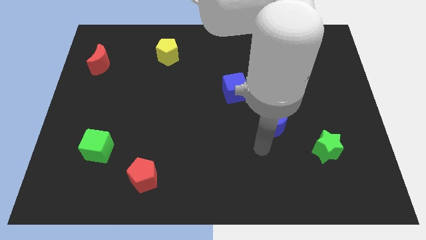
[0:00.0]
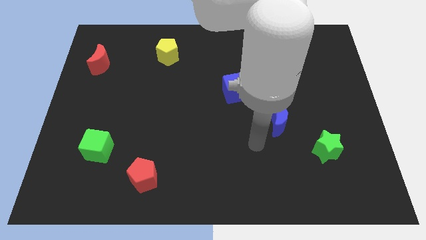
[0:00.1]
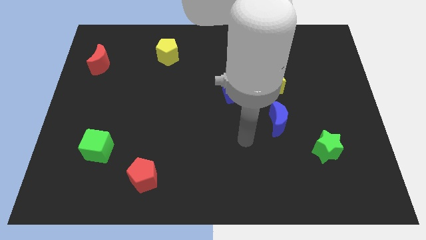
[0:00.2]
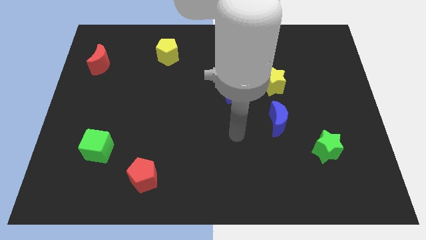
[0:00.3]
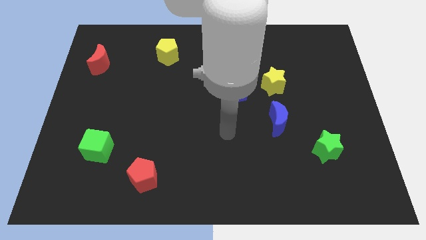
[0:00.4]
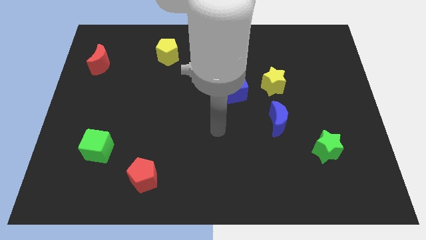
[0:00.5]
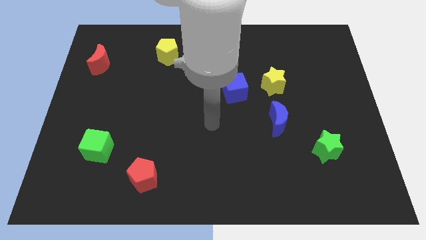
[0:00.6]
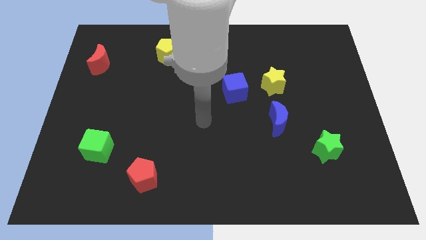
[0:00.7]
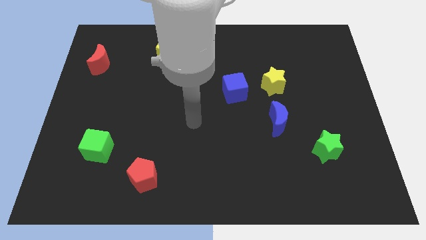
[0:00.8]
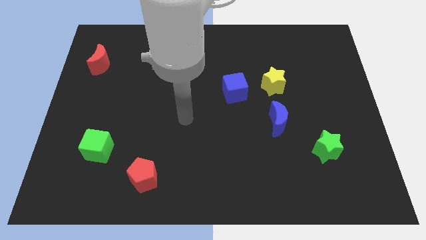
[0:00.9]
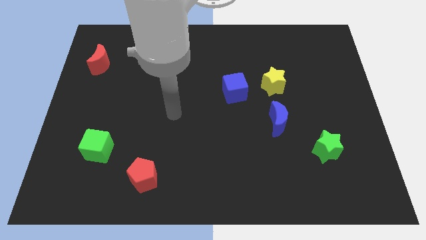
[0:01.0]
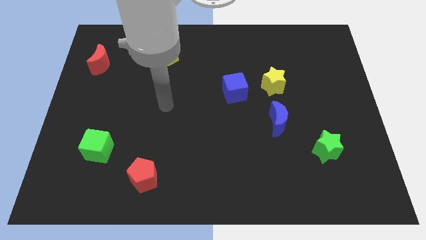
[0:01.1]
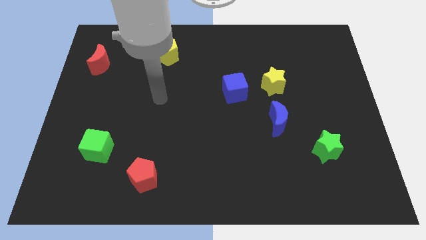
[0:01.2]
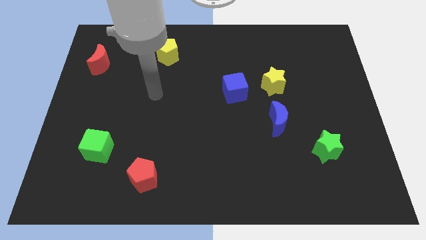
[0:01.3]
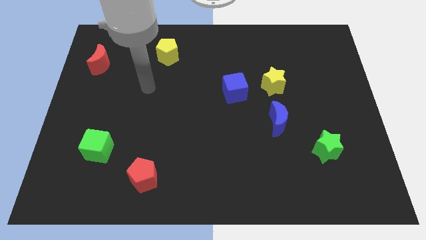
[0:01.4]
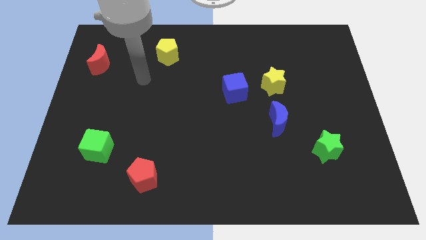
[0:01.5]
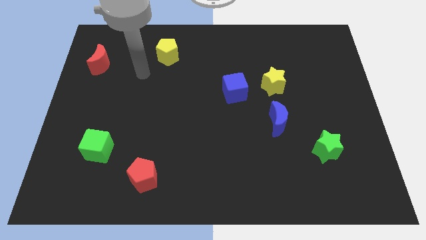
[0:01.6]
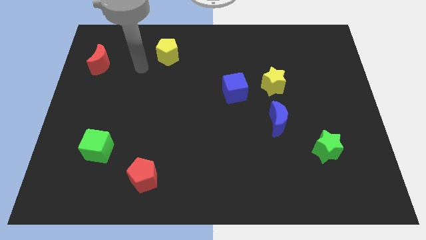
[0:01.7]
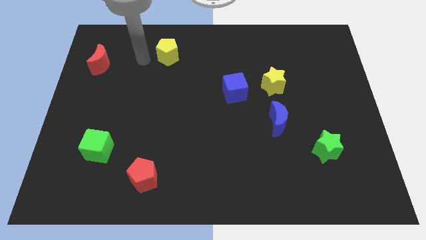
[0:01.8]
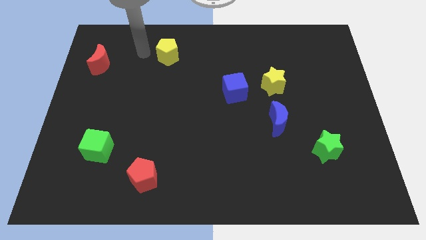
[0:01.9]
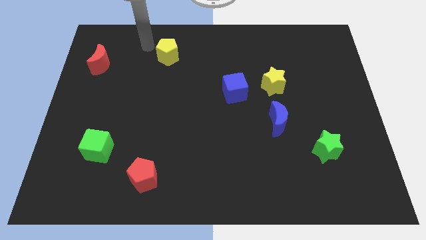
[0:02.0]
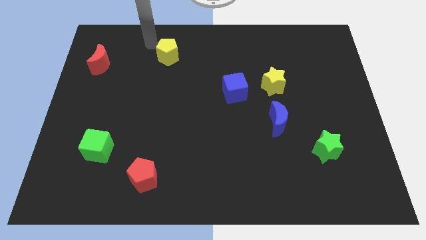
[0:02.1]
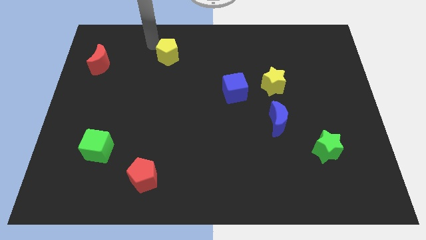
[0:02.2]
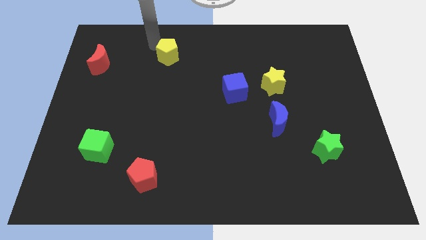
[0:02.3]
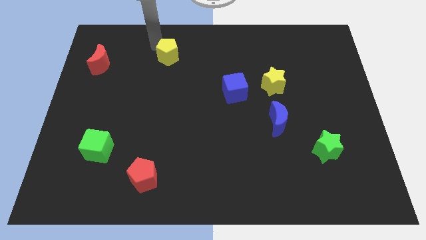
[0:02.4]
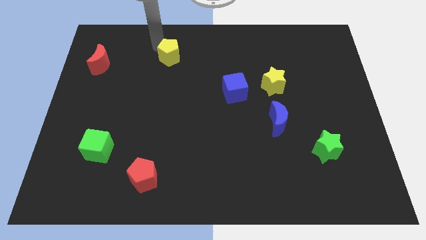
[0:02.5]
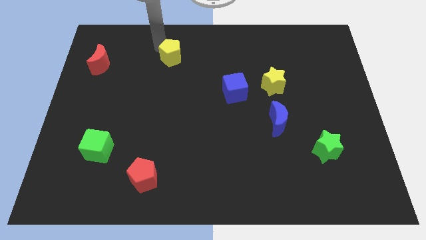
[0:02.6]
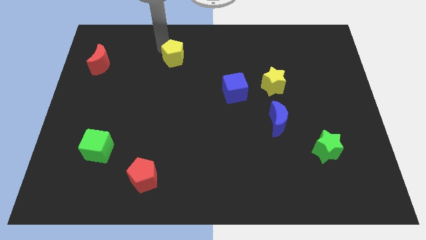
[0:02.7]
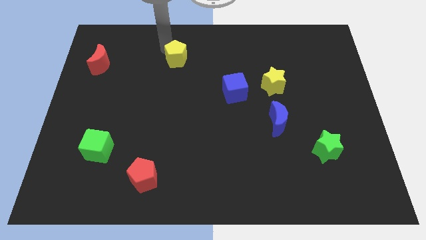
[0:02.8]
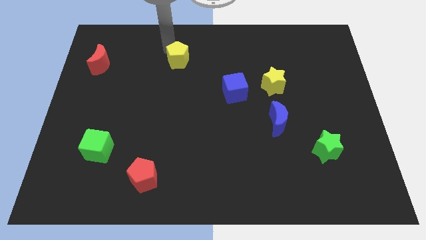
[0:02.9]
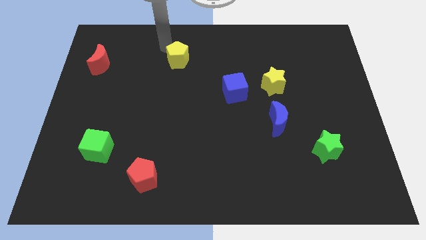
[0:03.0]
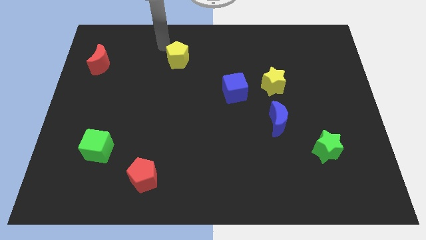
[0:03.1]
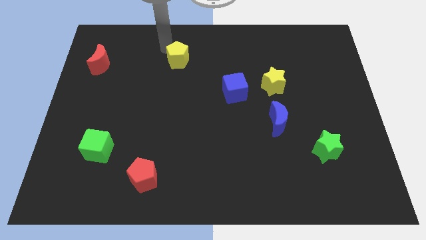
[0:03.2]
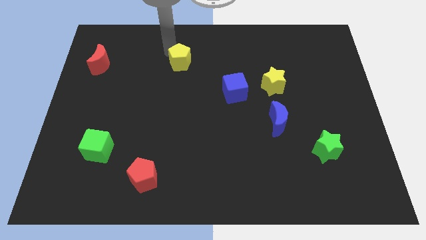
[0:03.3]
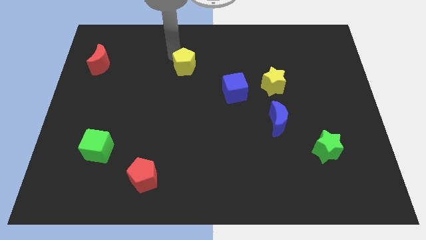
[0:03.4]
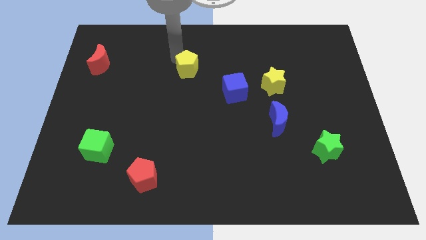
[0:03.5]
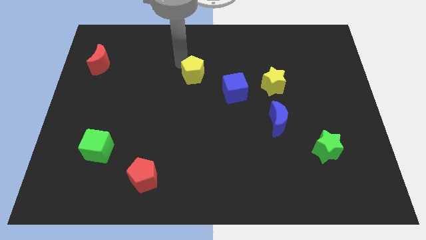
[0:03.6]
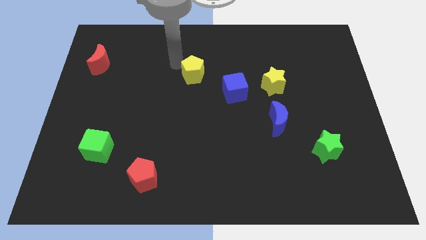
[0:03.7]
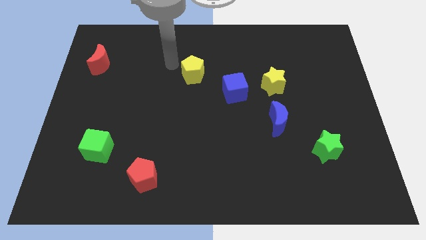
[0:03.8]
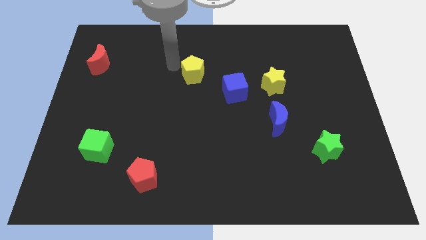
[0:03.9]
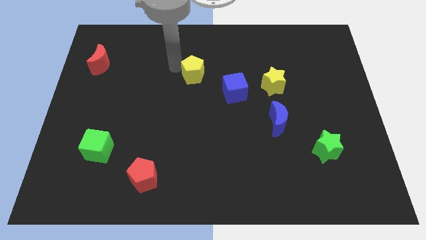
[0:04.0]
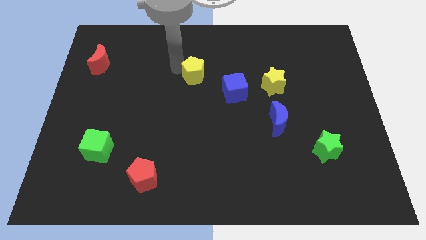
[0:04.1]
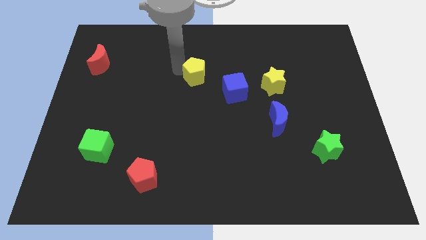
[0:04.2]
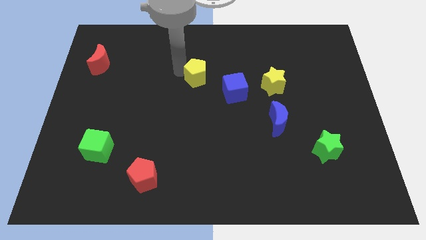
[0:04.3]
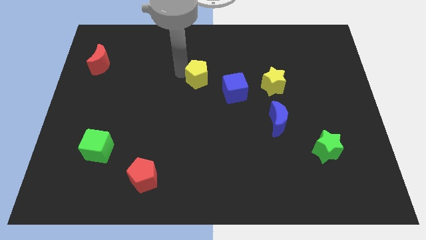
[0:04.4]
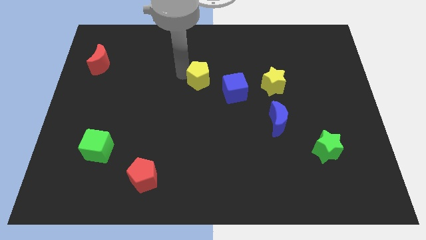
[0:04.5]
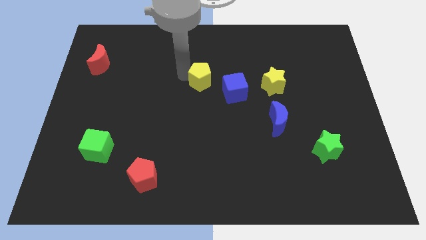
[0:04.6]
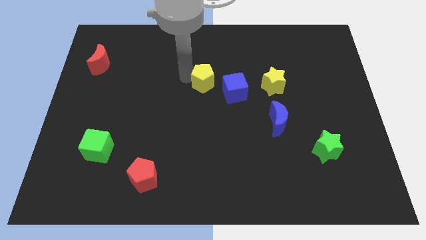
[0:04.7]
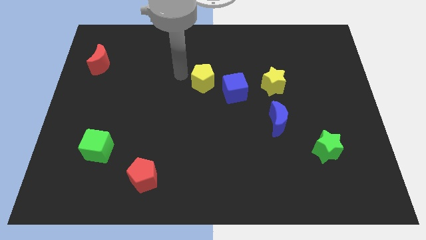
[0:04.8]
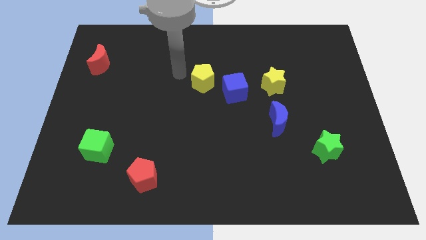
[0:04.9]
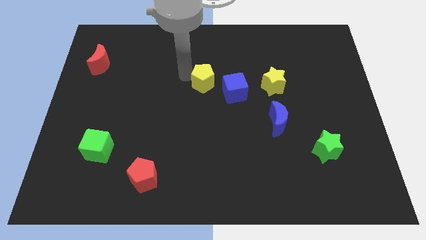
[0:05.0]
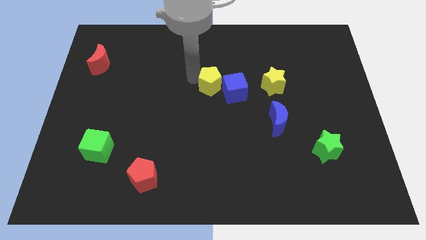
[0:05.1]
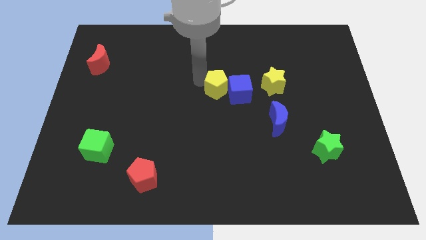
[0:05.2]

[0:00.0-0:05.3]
push the yellow pentagon next to the blue cube

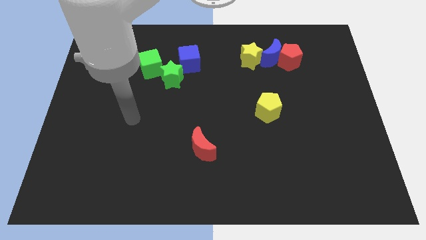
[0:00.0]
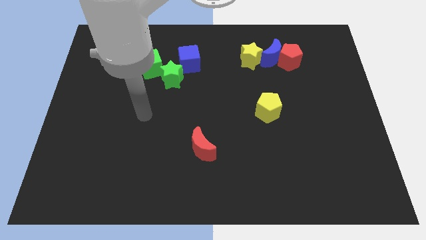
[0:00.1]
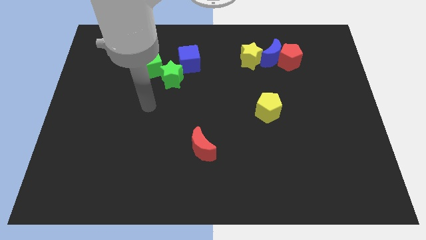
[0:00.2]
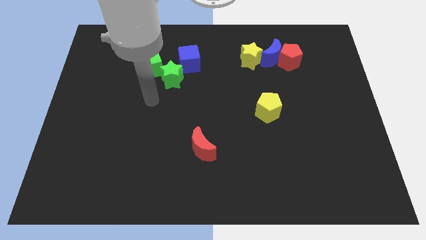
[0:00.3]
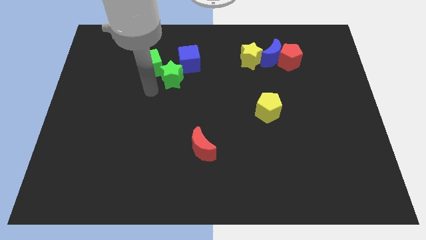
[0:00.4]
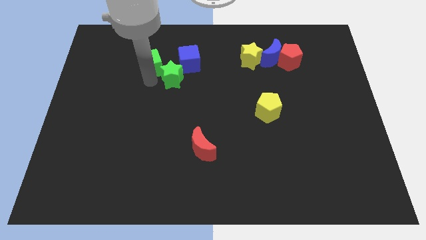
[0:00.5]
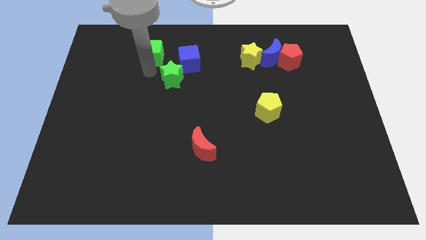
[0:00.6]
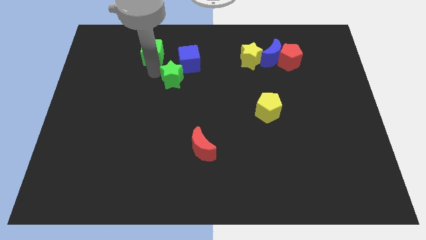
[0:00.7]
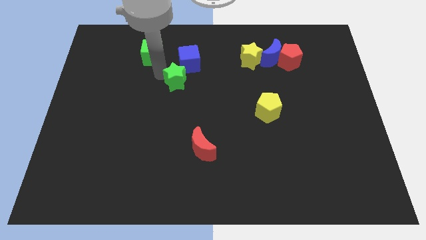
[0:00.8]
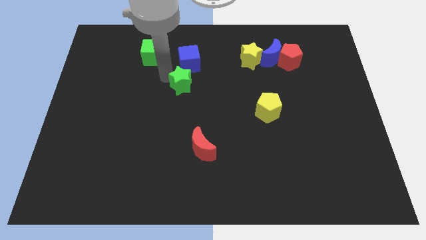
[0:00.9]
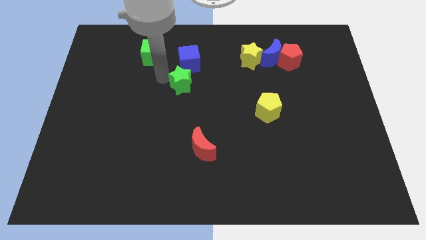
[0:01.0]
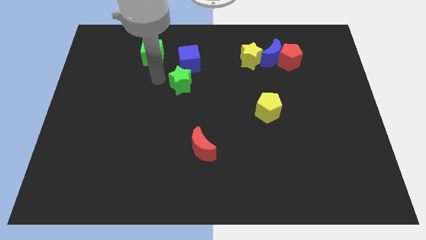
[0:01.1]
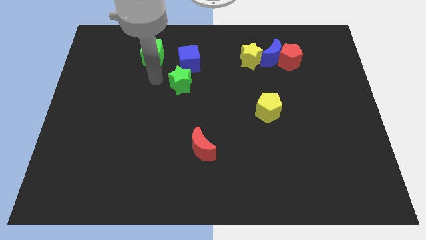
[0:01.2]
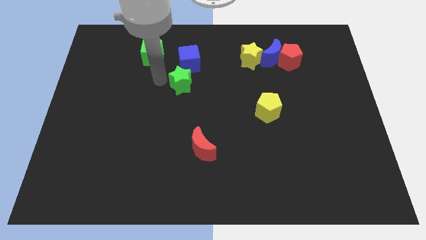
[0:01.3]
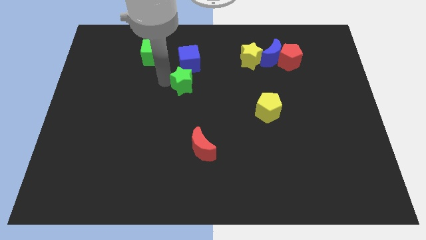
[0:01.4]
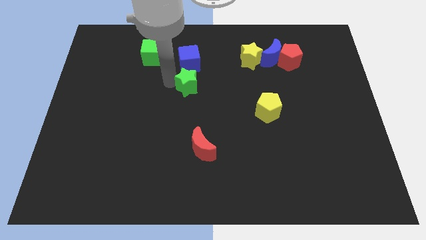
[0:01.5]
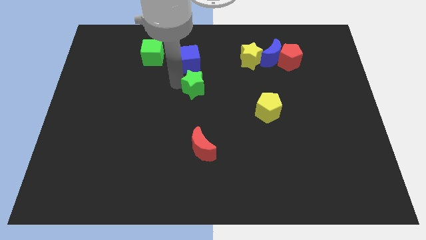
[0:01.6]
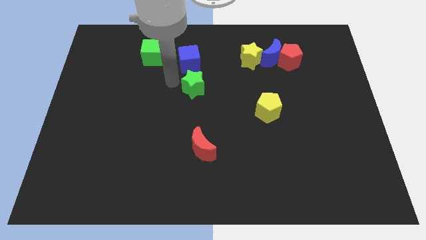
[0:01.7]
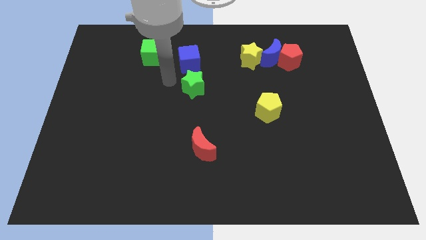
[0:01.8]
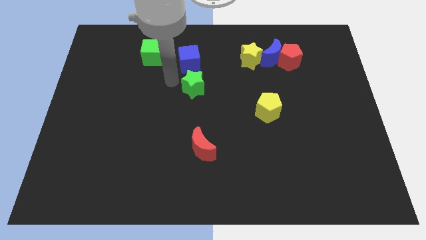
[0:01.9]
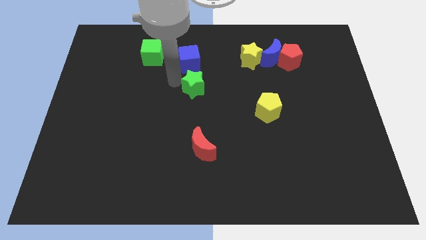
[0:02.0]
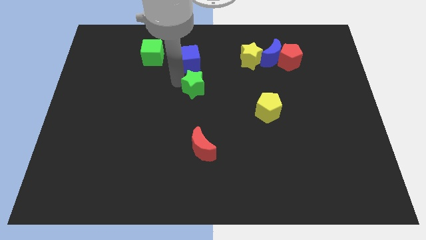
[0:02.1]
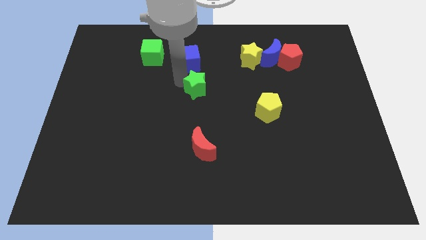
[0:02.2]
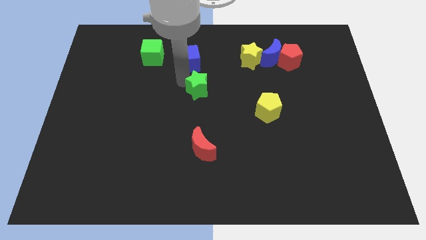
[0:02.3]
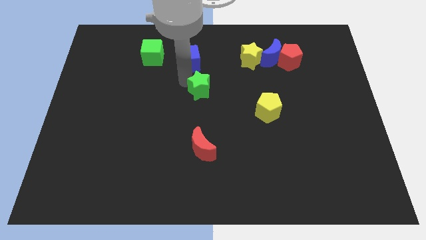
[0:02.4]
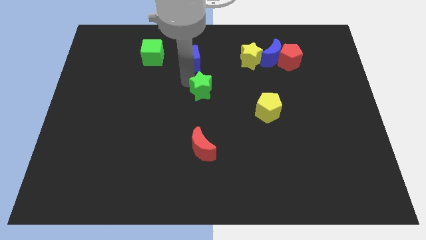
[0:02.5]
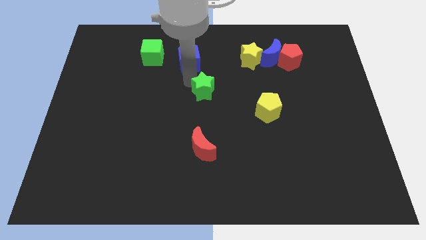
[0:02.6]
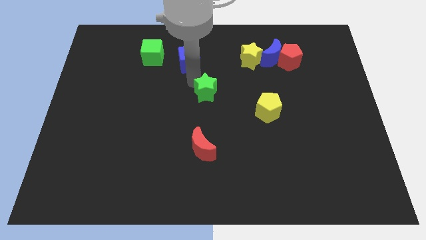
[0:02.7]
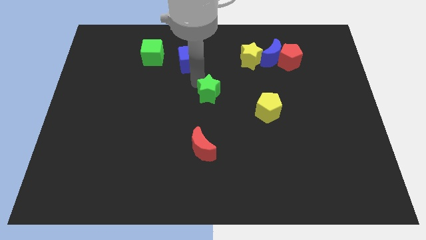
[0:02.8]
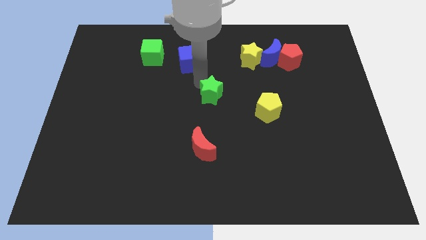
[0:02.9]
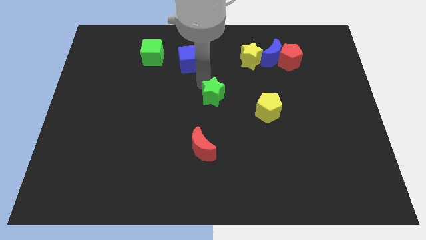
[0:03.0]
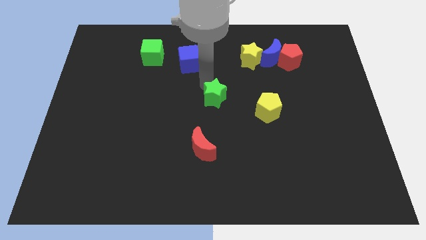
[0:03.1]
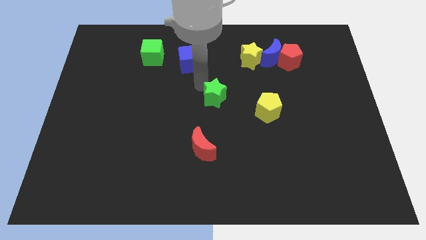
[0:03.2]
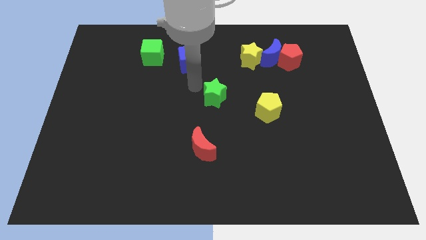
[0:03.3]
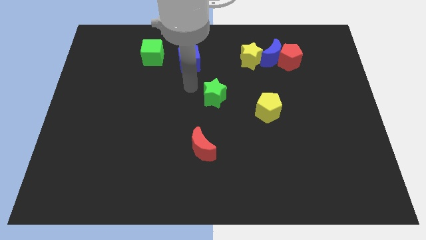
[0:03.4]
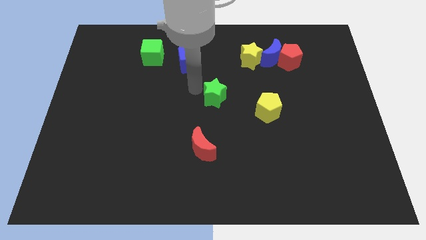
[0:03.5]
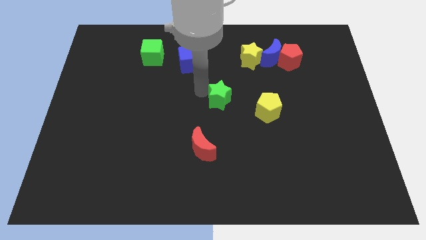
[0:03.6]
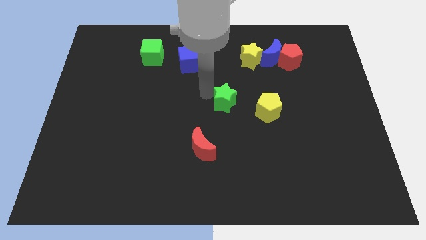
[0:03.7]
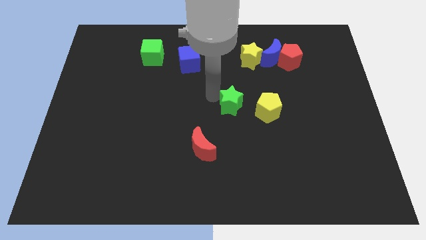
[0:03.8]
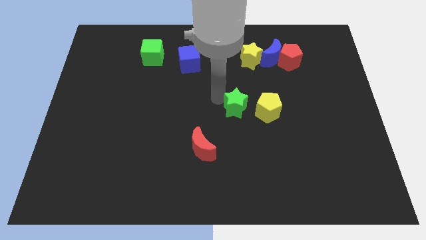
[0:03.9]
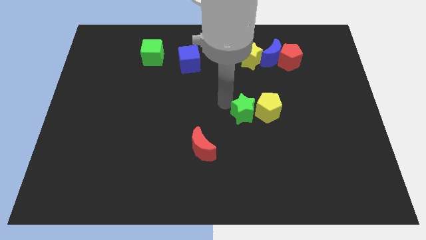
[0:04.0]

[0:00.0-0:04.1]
put the green star next to the yellow pentagon
